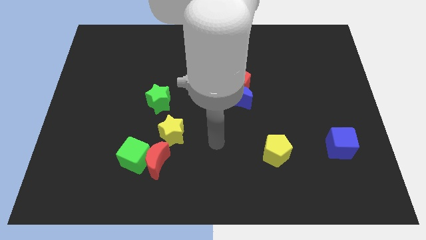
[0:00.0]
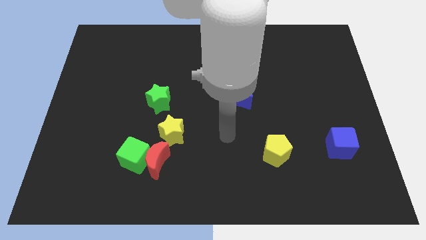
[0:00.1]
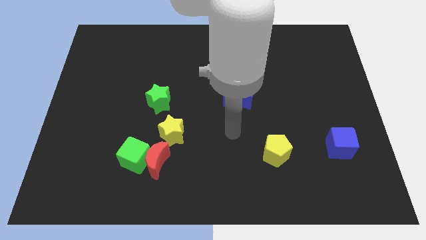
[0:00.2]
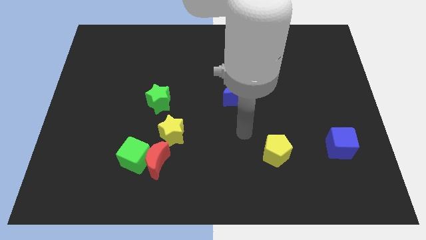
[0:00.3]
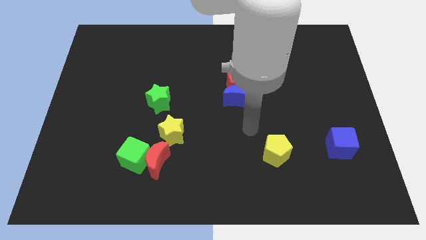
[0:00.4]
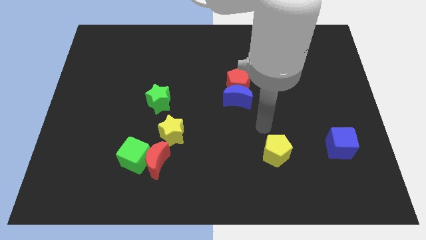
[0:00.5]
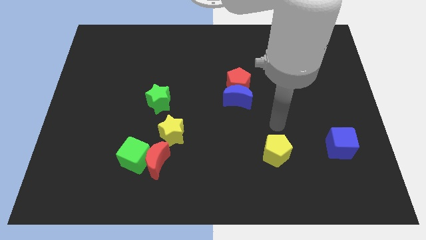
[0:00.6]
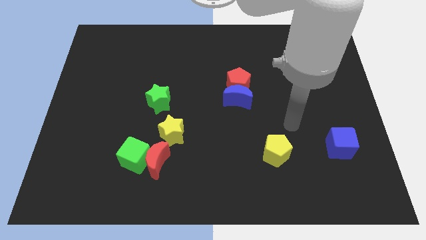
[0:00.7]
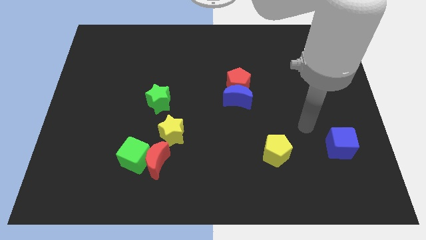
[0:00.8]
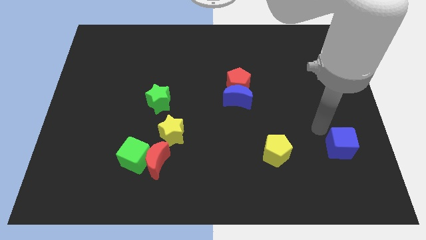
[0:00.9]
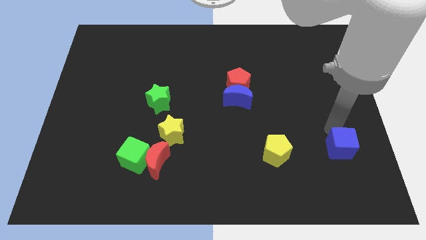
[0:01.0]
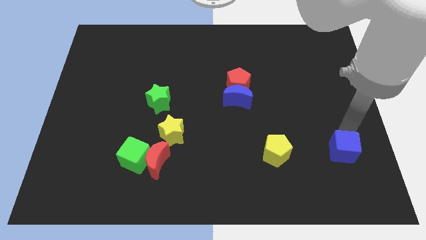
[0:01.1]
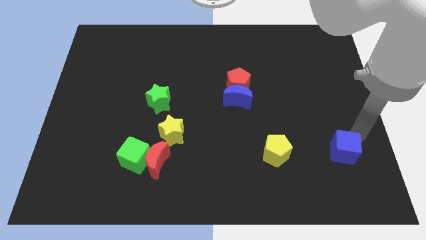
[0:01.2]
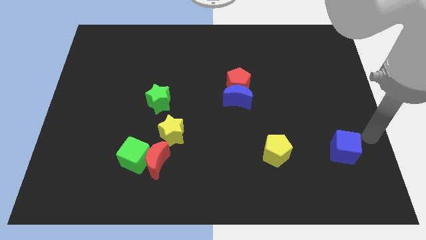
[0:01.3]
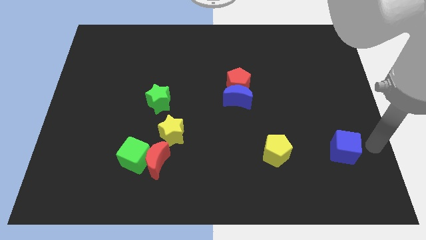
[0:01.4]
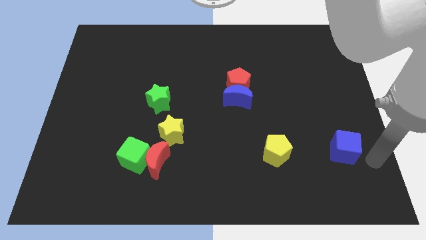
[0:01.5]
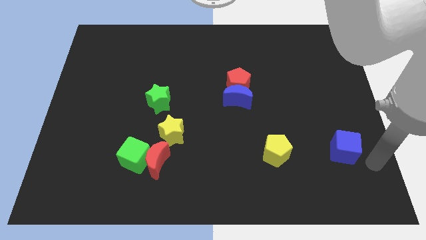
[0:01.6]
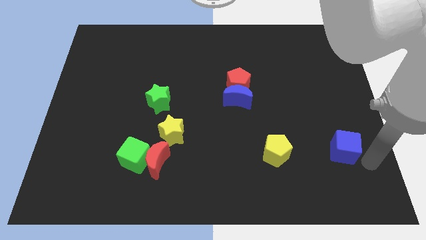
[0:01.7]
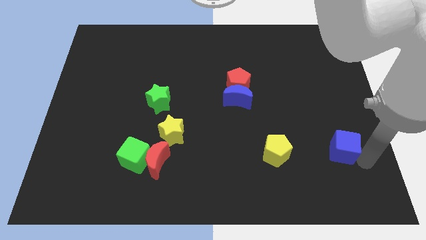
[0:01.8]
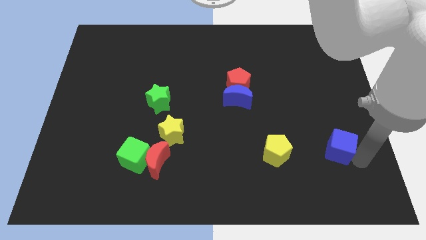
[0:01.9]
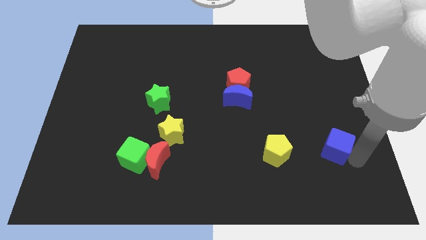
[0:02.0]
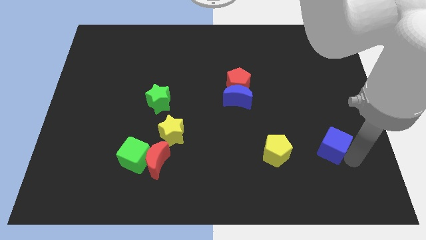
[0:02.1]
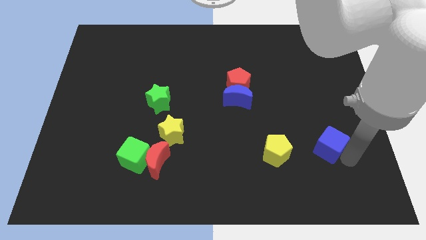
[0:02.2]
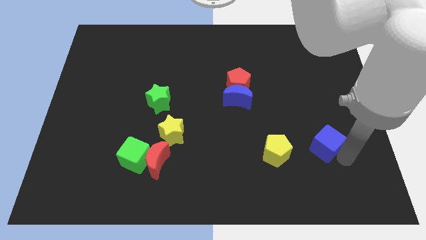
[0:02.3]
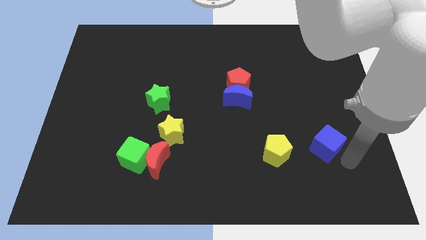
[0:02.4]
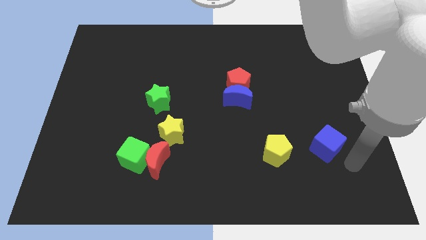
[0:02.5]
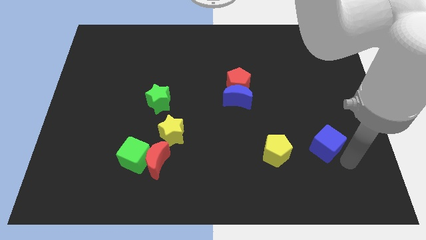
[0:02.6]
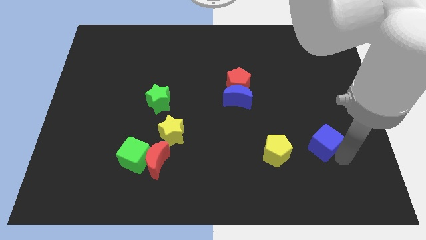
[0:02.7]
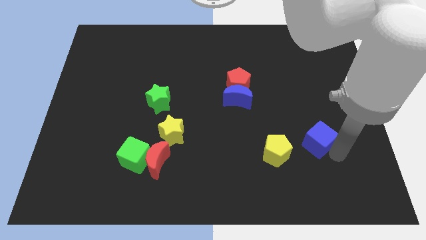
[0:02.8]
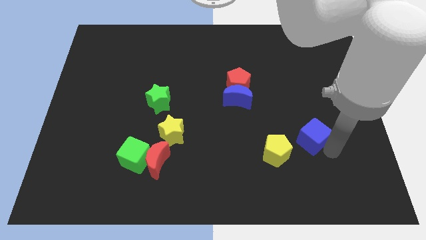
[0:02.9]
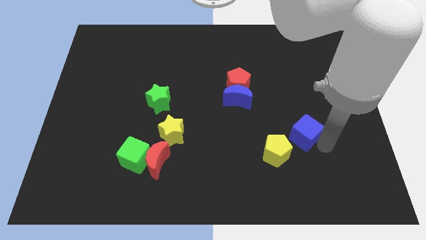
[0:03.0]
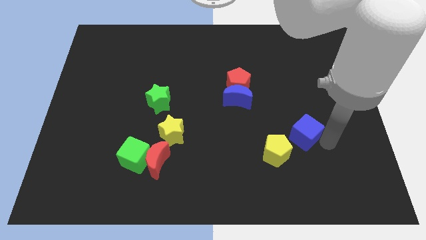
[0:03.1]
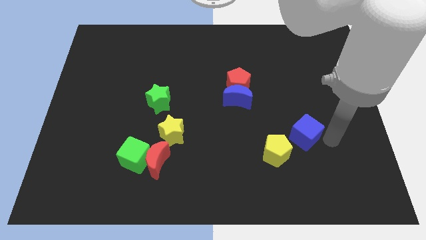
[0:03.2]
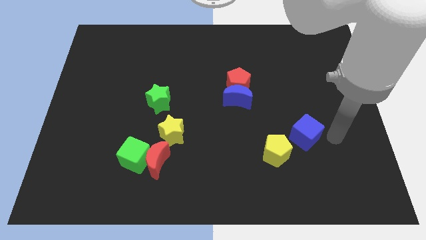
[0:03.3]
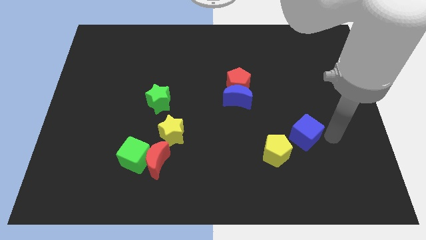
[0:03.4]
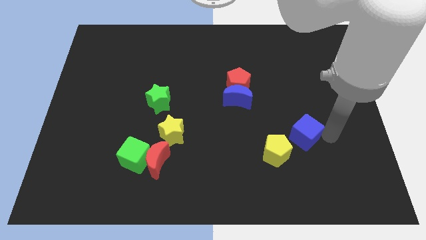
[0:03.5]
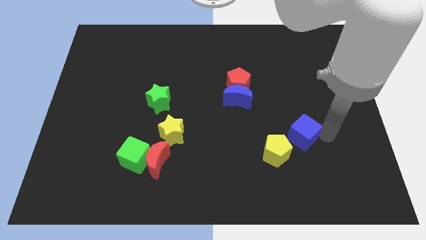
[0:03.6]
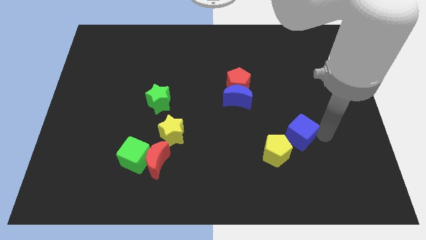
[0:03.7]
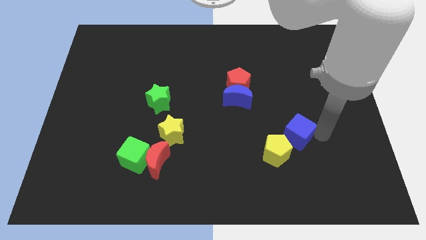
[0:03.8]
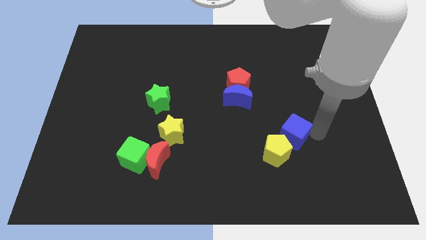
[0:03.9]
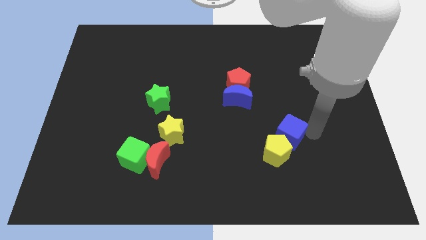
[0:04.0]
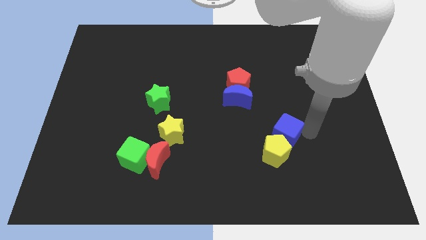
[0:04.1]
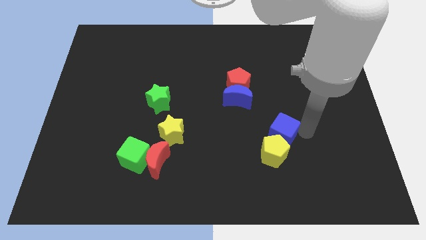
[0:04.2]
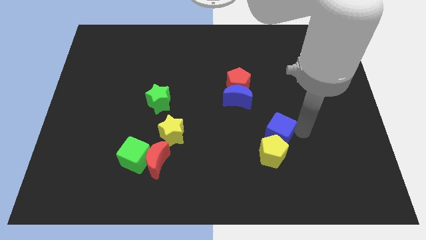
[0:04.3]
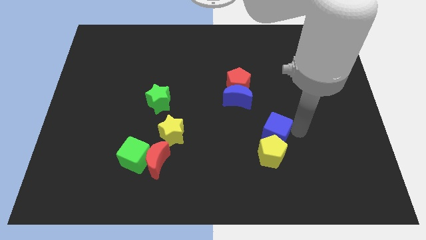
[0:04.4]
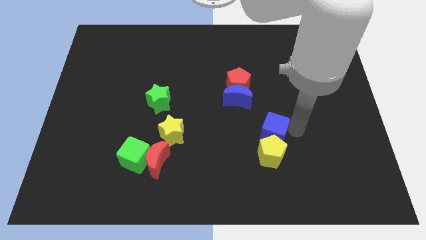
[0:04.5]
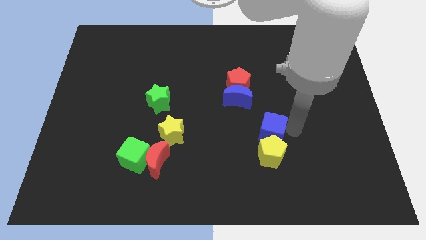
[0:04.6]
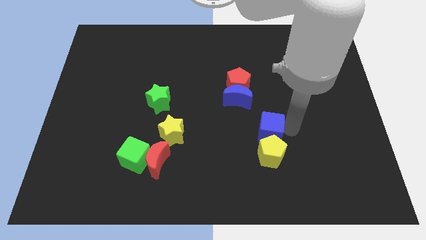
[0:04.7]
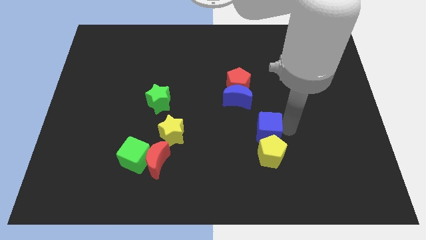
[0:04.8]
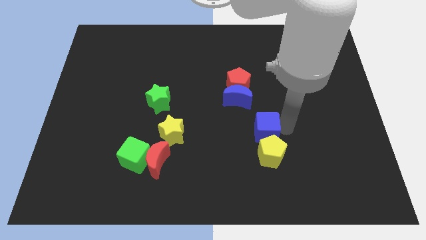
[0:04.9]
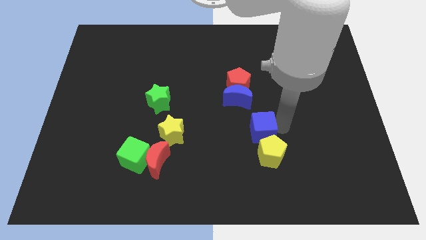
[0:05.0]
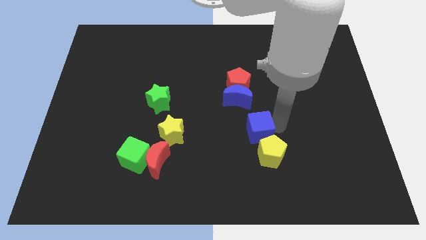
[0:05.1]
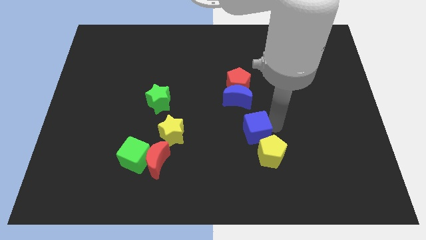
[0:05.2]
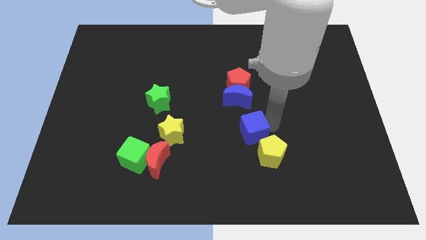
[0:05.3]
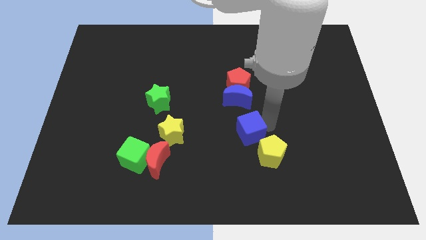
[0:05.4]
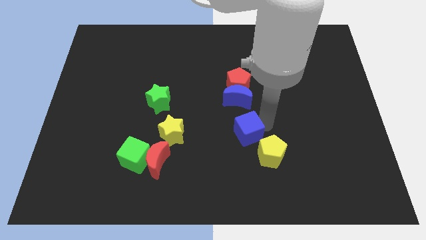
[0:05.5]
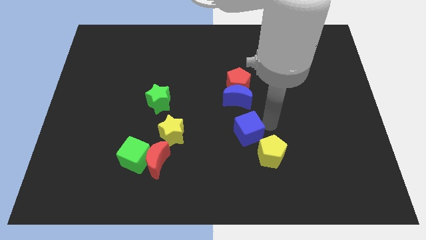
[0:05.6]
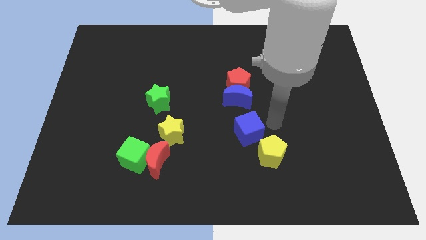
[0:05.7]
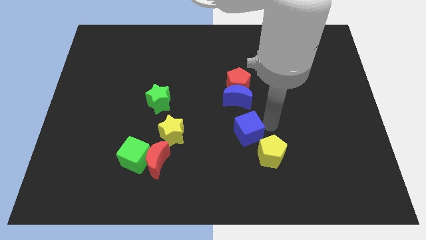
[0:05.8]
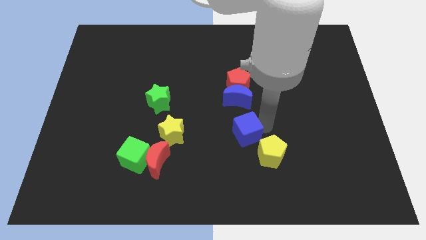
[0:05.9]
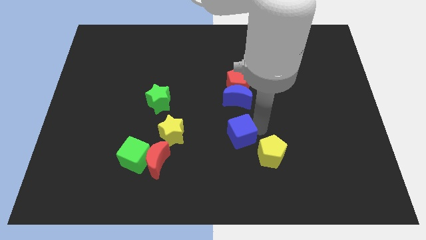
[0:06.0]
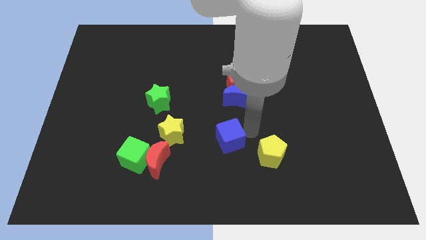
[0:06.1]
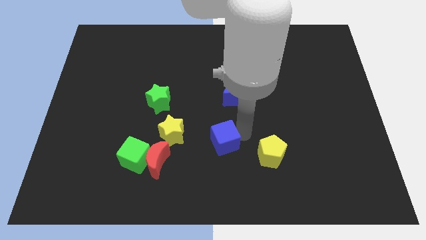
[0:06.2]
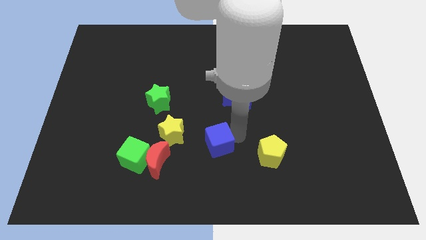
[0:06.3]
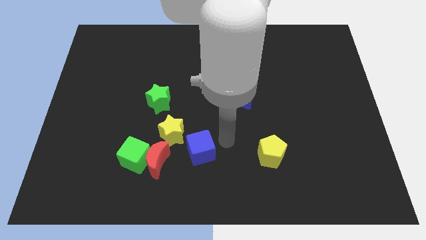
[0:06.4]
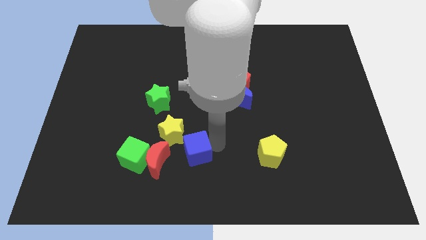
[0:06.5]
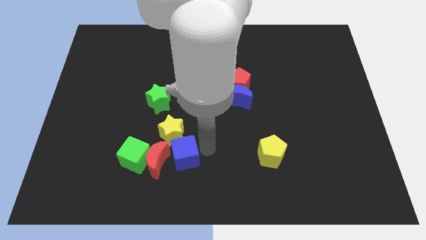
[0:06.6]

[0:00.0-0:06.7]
put the blue cube close to the red moon

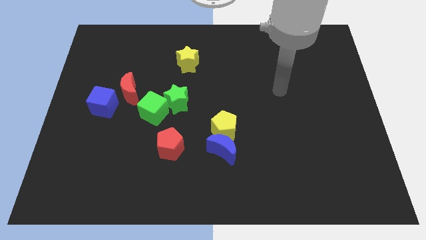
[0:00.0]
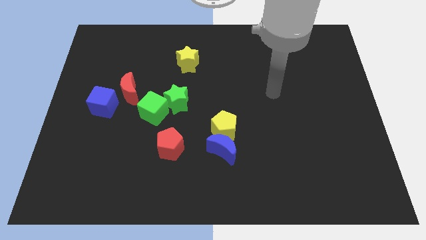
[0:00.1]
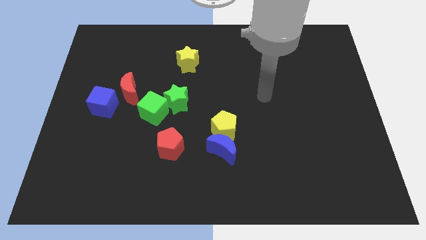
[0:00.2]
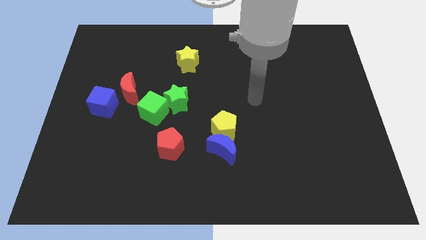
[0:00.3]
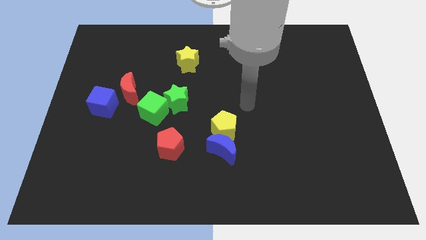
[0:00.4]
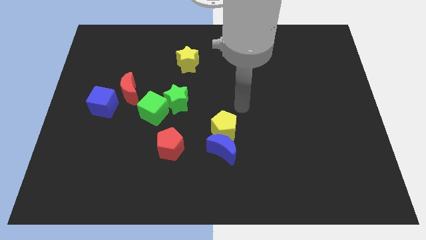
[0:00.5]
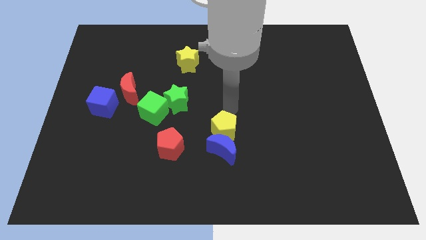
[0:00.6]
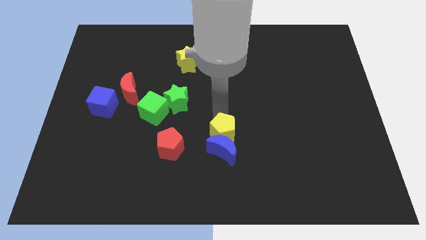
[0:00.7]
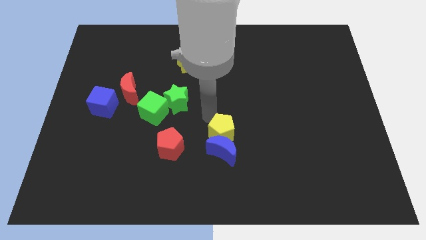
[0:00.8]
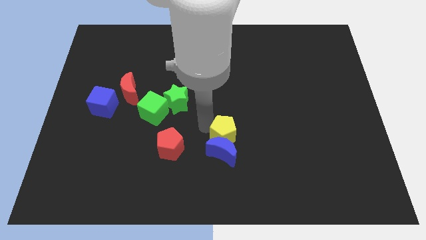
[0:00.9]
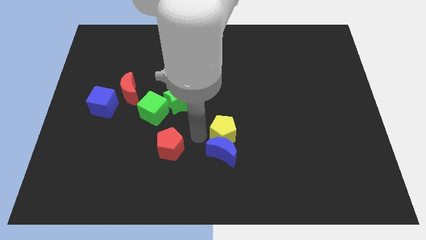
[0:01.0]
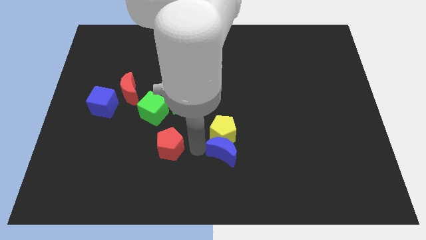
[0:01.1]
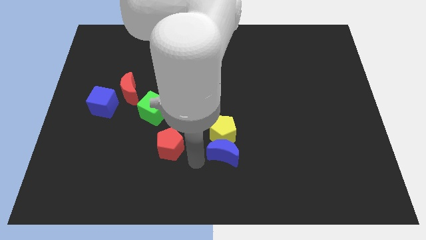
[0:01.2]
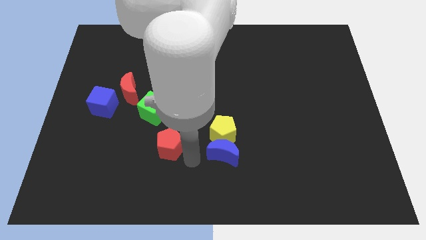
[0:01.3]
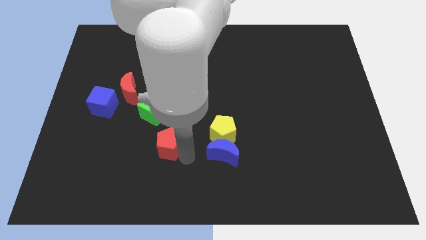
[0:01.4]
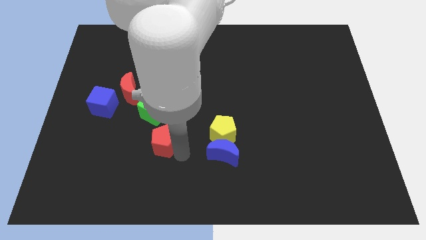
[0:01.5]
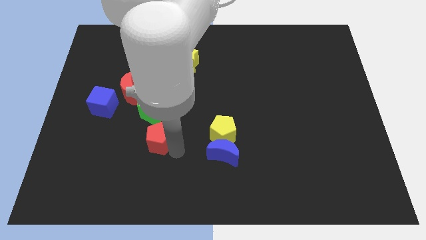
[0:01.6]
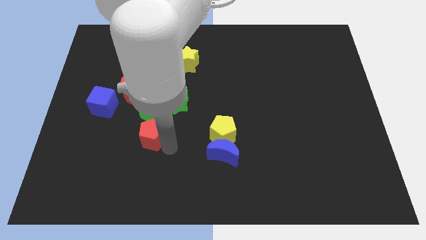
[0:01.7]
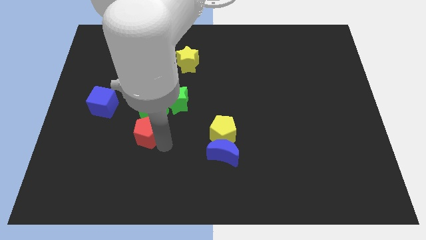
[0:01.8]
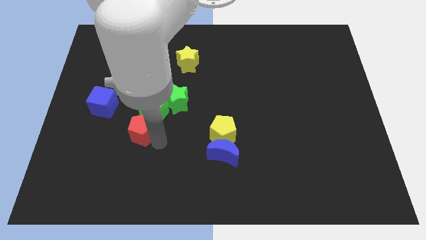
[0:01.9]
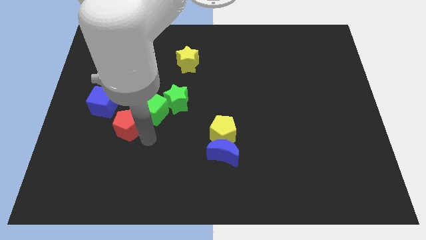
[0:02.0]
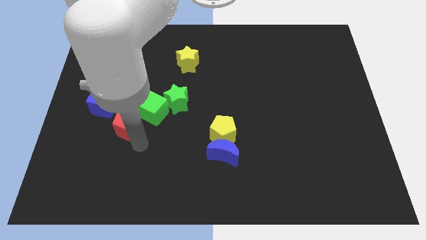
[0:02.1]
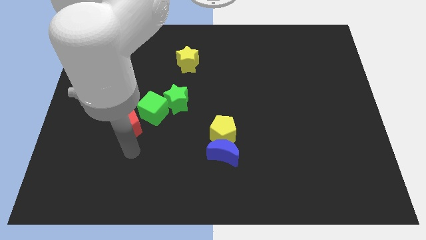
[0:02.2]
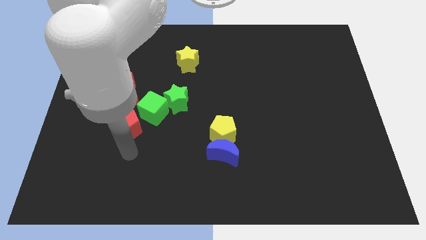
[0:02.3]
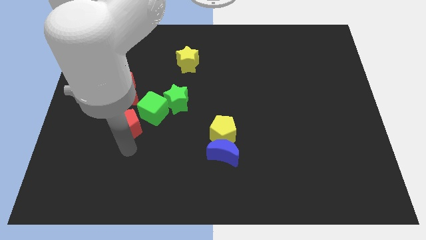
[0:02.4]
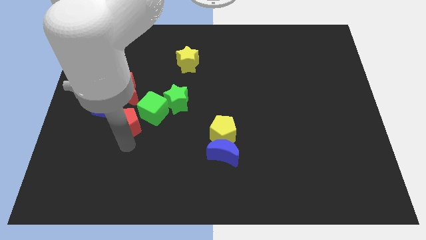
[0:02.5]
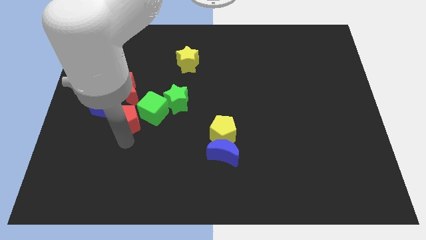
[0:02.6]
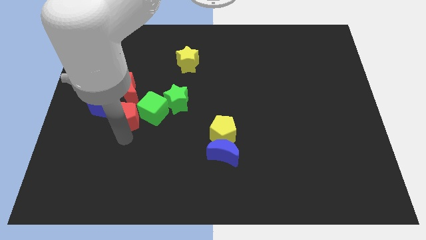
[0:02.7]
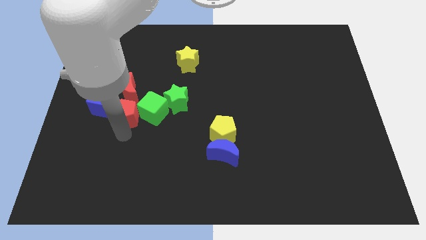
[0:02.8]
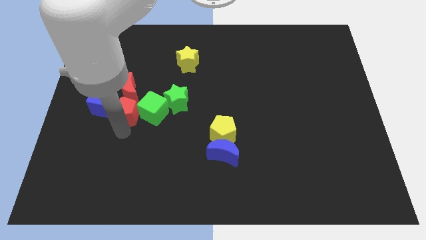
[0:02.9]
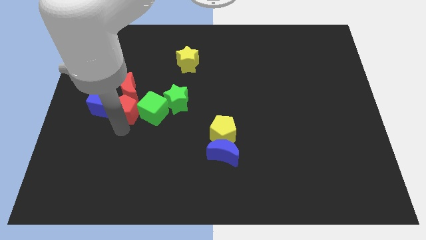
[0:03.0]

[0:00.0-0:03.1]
push the red pentagon to the red moon
